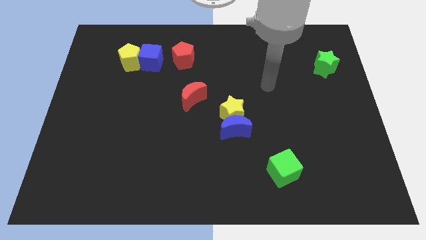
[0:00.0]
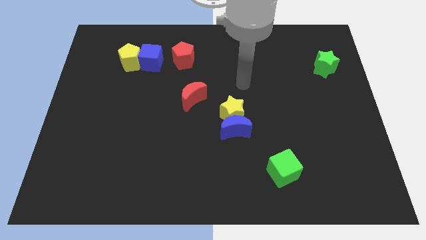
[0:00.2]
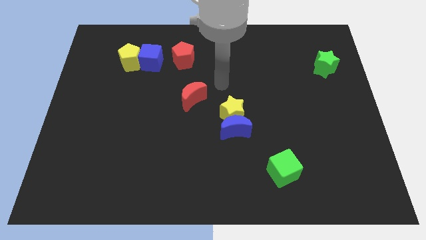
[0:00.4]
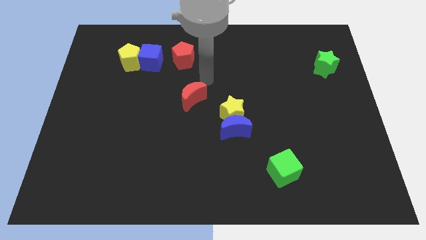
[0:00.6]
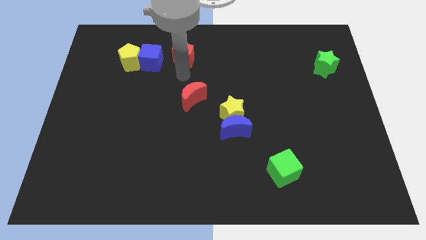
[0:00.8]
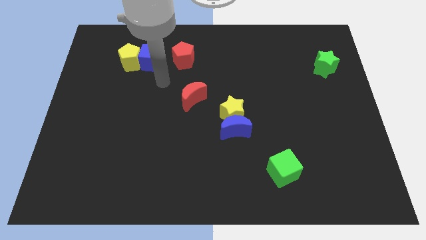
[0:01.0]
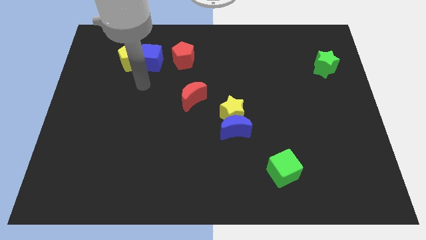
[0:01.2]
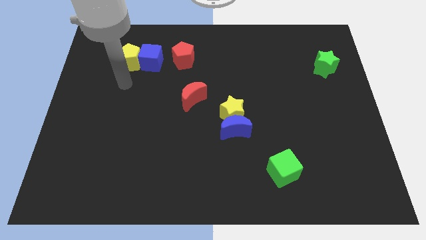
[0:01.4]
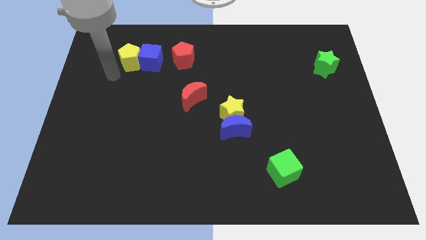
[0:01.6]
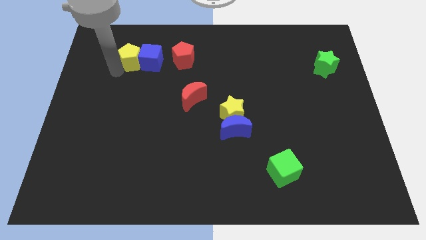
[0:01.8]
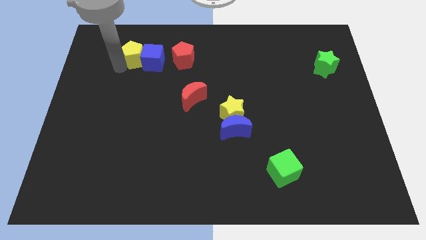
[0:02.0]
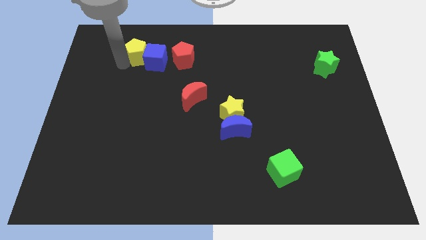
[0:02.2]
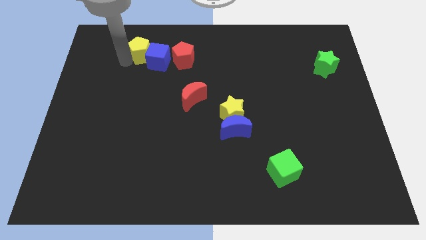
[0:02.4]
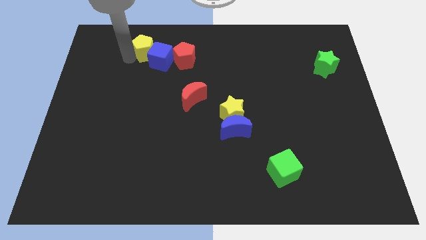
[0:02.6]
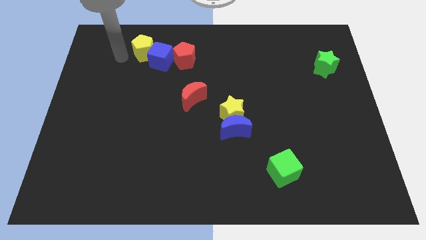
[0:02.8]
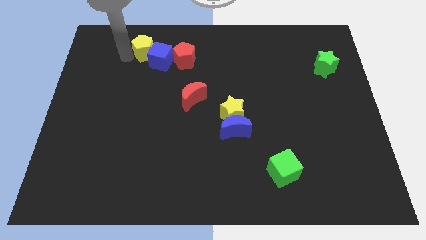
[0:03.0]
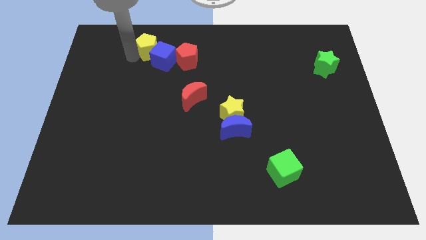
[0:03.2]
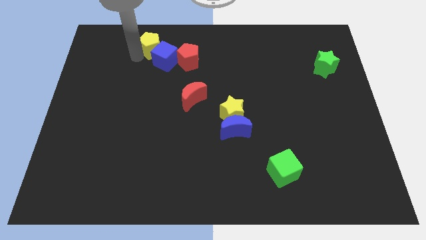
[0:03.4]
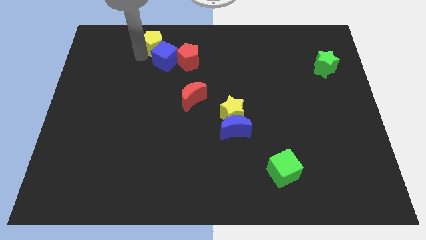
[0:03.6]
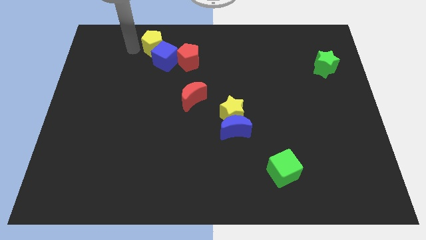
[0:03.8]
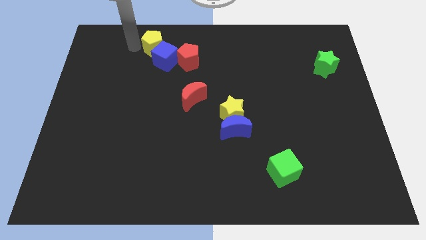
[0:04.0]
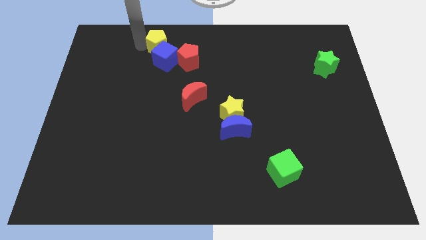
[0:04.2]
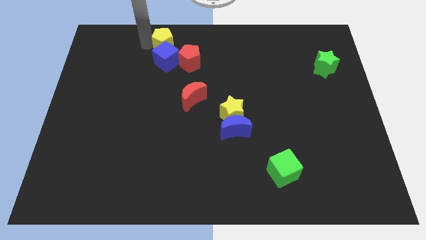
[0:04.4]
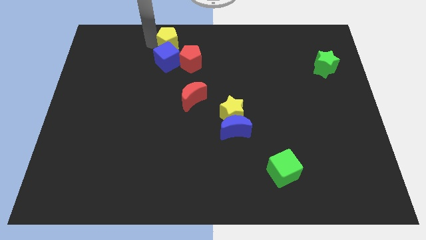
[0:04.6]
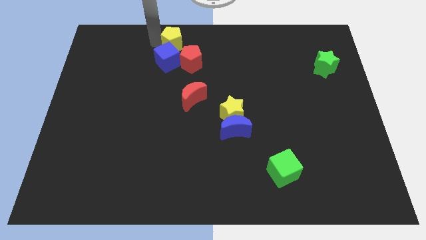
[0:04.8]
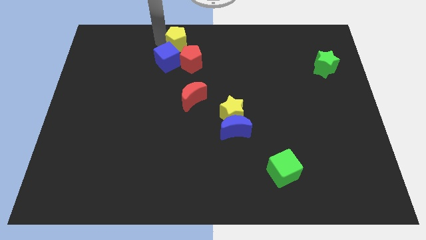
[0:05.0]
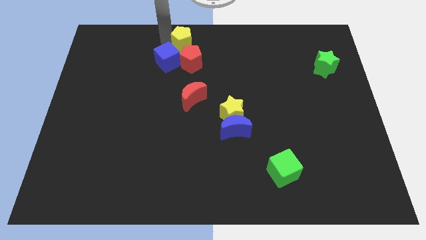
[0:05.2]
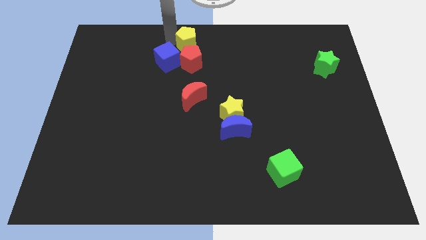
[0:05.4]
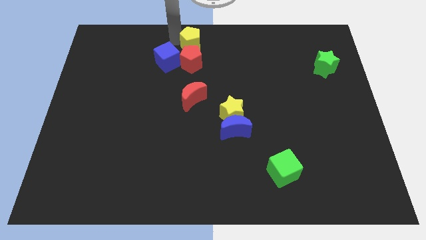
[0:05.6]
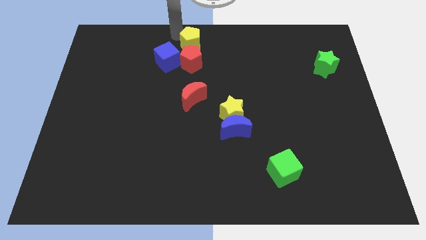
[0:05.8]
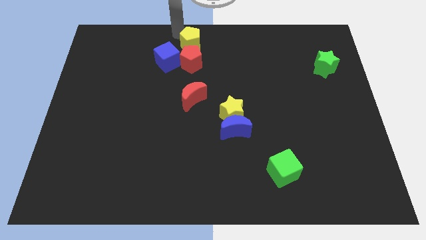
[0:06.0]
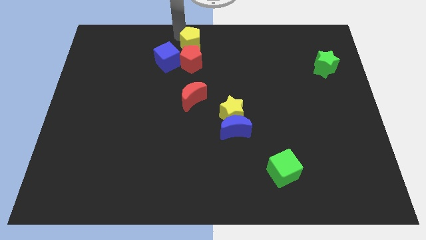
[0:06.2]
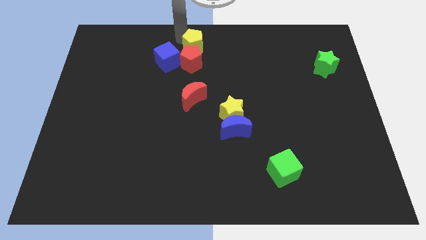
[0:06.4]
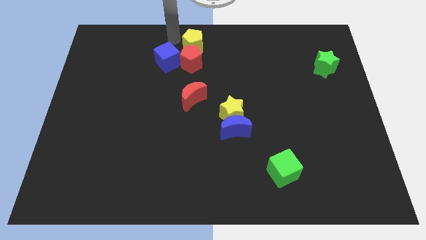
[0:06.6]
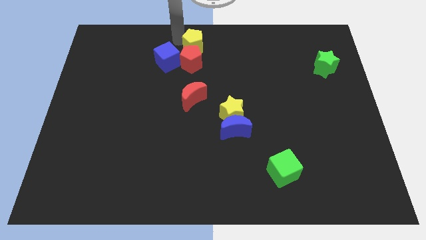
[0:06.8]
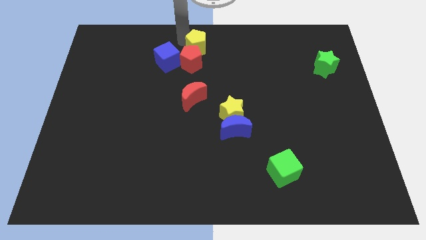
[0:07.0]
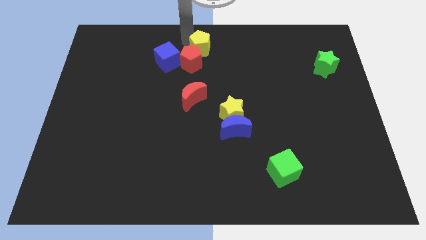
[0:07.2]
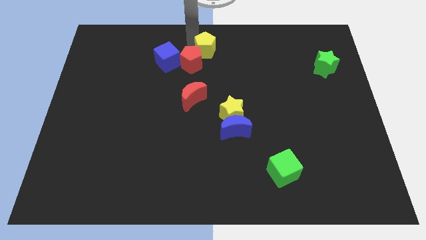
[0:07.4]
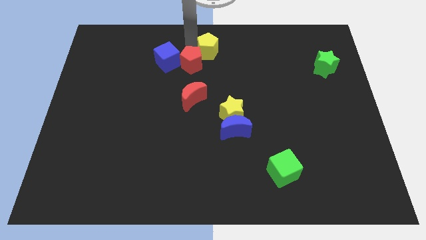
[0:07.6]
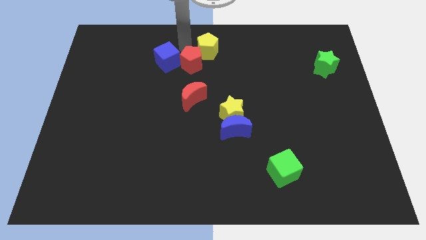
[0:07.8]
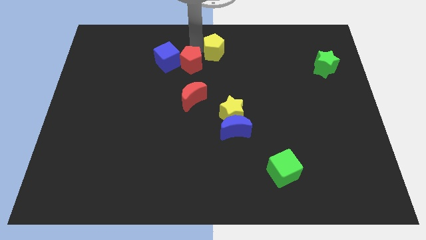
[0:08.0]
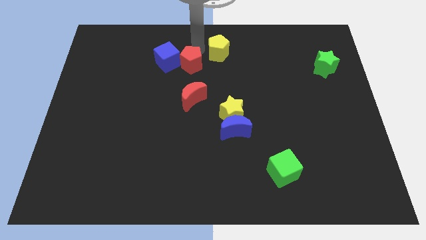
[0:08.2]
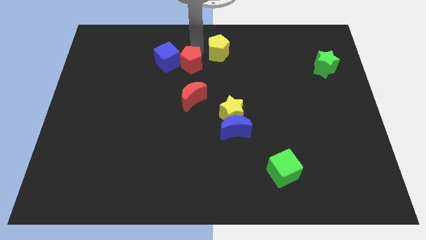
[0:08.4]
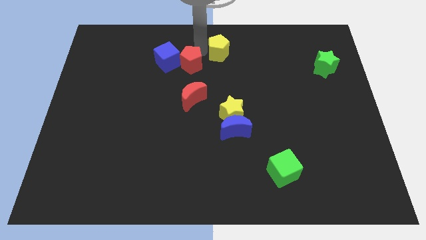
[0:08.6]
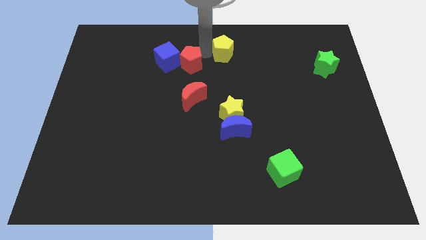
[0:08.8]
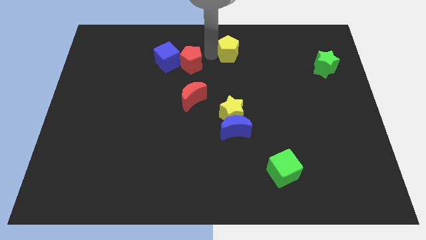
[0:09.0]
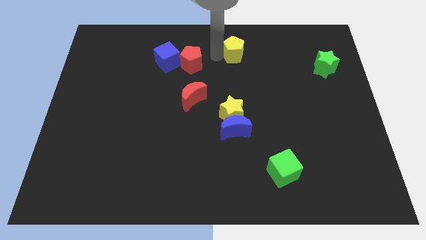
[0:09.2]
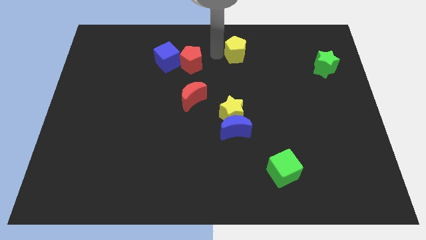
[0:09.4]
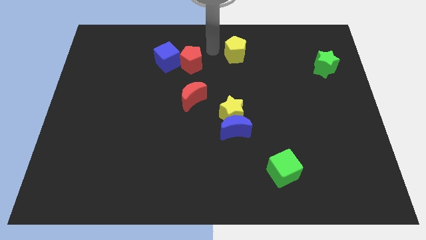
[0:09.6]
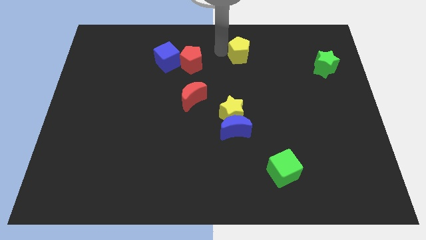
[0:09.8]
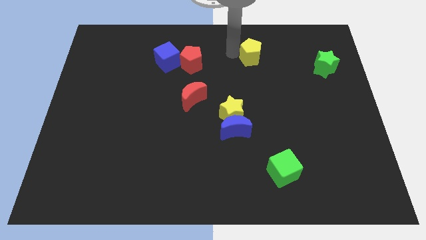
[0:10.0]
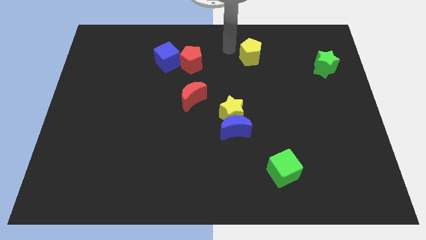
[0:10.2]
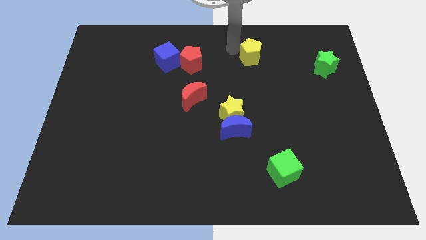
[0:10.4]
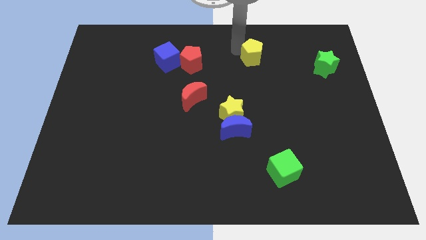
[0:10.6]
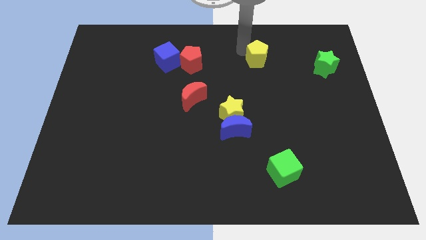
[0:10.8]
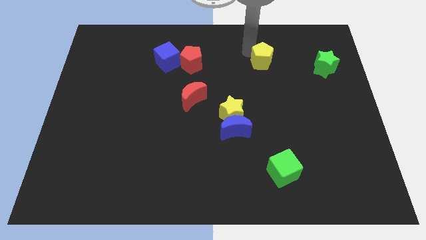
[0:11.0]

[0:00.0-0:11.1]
push the yellow pentagon left of the green star

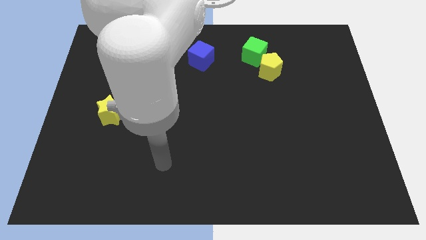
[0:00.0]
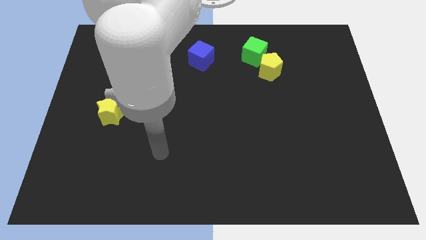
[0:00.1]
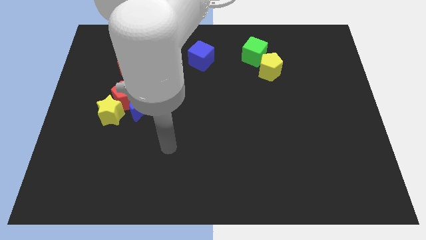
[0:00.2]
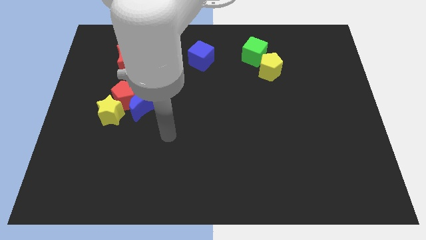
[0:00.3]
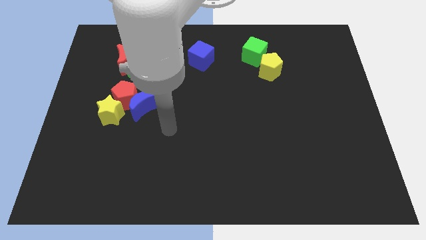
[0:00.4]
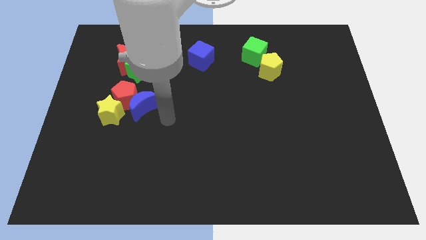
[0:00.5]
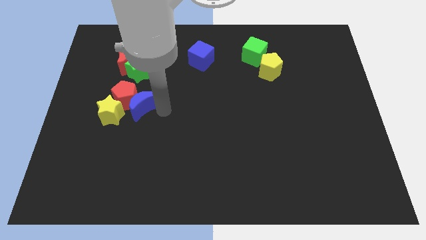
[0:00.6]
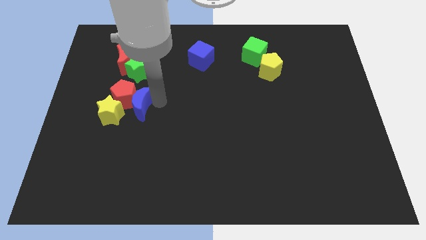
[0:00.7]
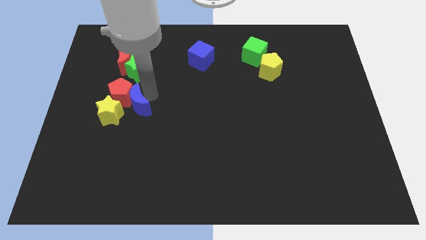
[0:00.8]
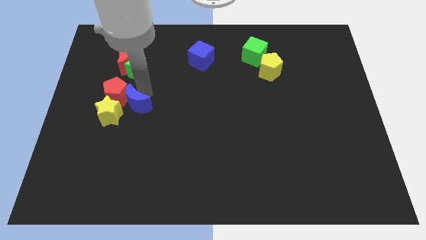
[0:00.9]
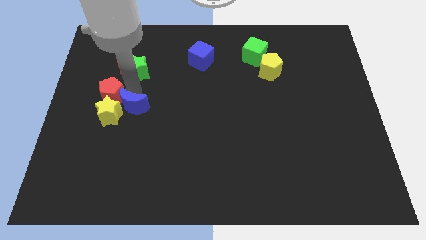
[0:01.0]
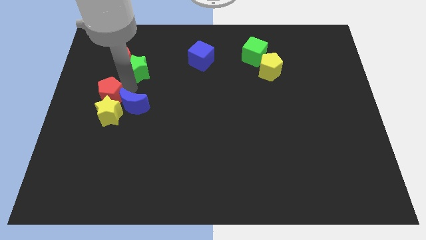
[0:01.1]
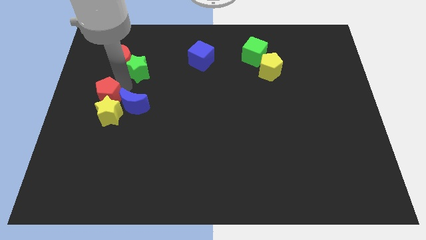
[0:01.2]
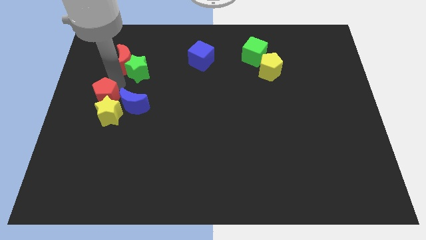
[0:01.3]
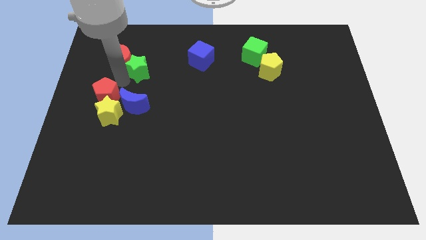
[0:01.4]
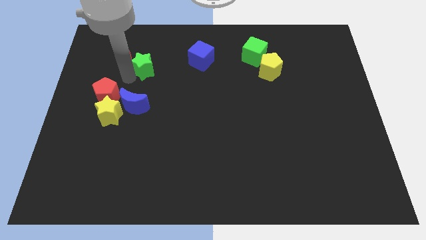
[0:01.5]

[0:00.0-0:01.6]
put the green star left of the blue cube
